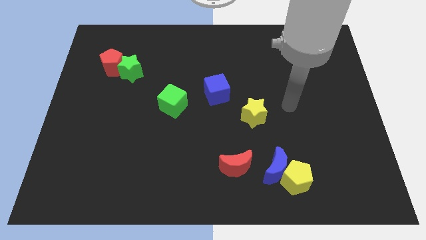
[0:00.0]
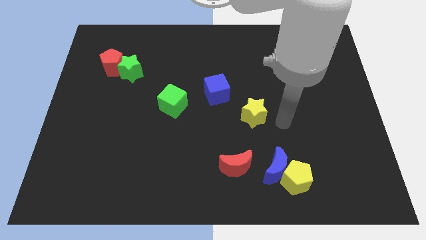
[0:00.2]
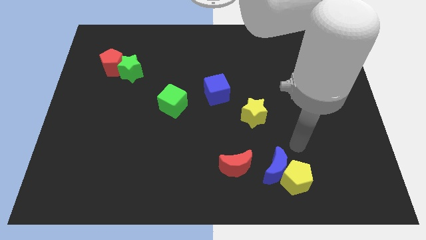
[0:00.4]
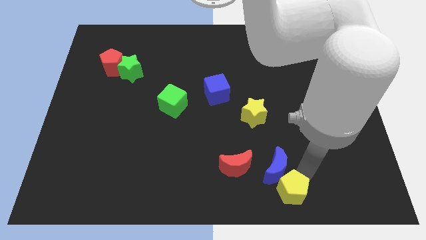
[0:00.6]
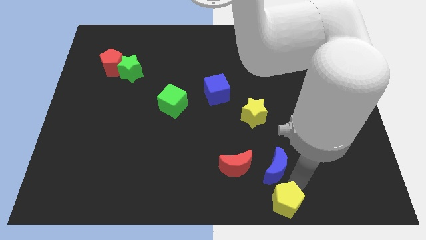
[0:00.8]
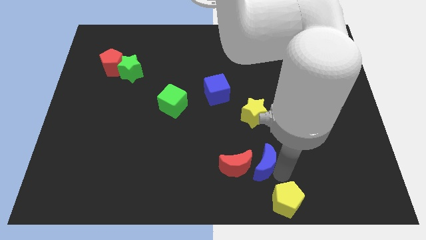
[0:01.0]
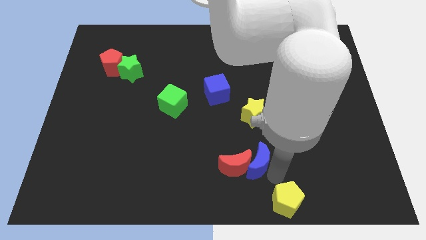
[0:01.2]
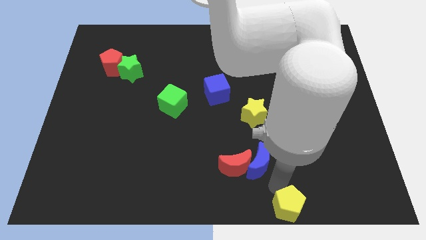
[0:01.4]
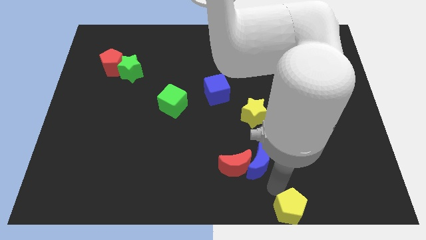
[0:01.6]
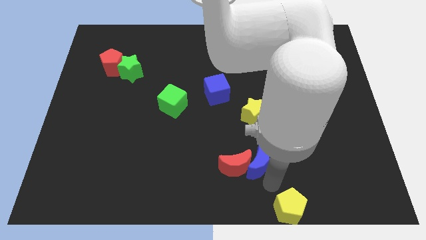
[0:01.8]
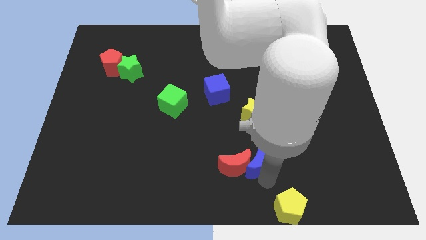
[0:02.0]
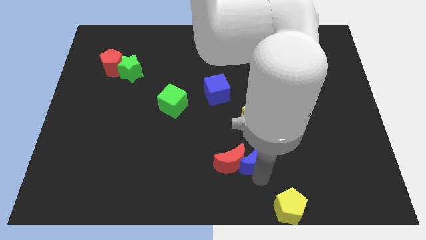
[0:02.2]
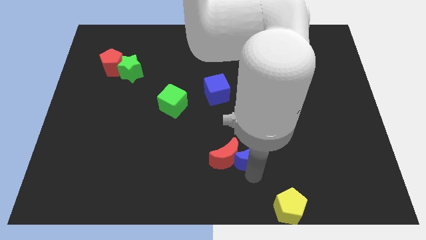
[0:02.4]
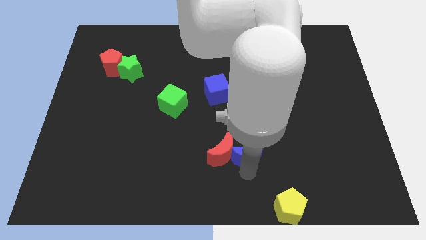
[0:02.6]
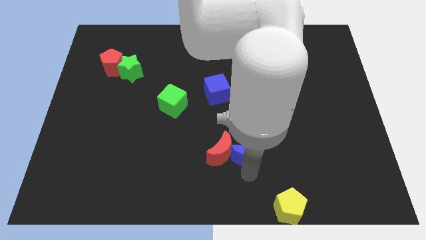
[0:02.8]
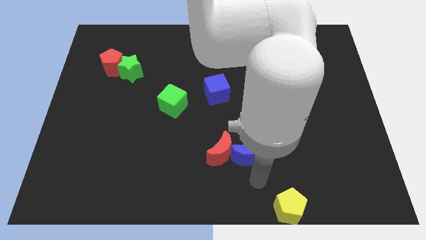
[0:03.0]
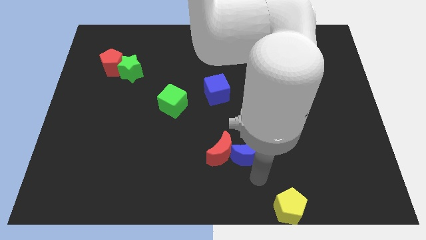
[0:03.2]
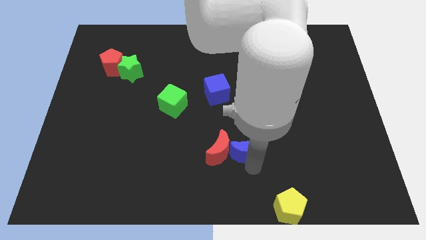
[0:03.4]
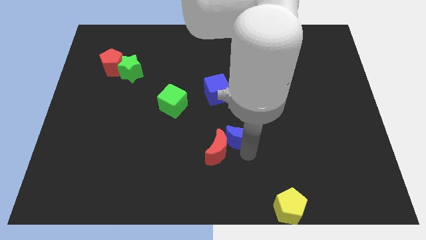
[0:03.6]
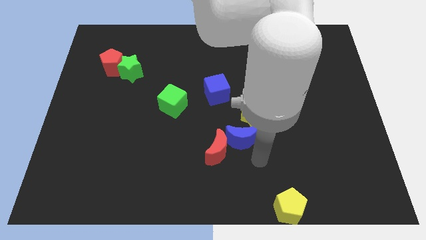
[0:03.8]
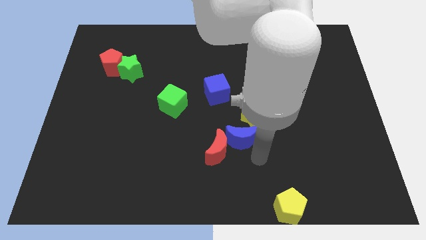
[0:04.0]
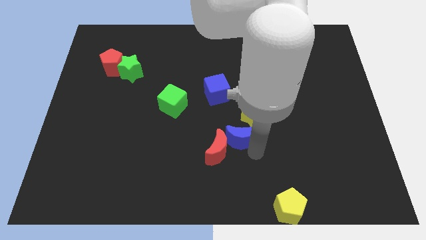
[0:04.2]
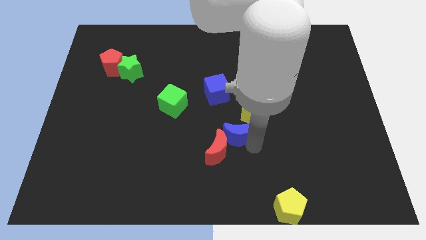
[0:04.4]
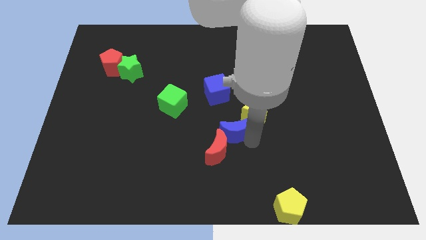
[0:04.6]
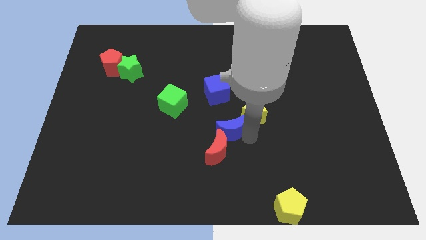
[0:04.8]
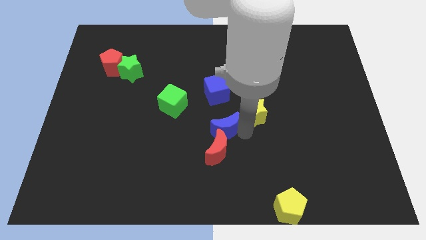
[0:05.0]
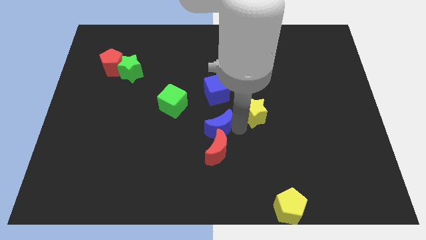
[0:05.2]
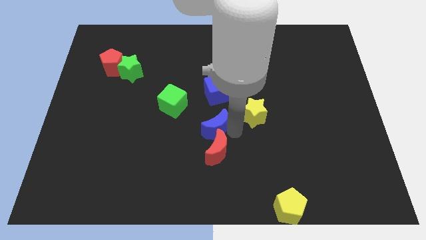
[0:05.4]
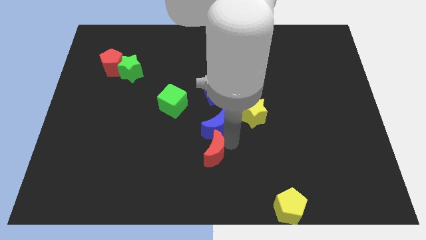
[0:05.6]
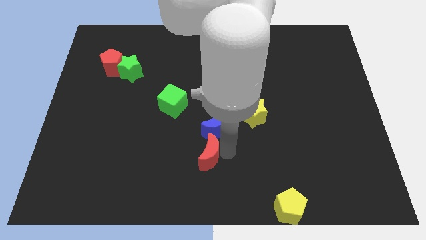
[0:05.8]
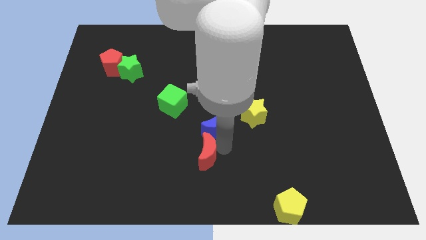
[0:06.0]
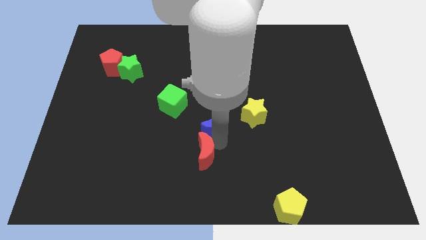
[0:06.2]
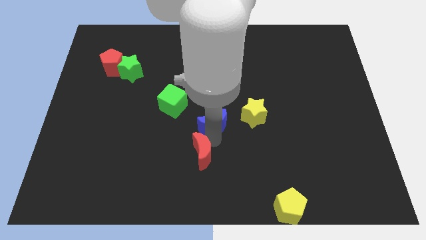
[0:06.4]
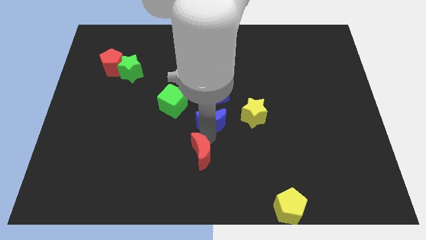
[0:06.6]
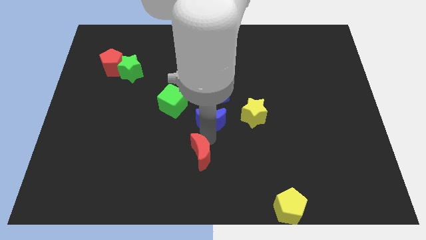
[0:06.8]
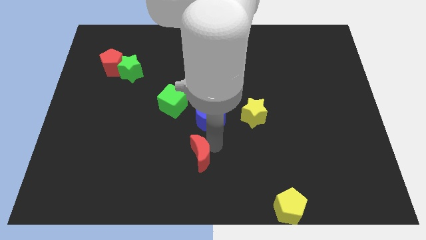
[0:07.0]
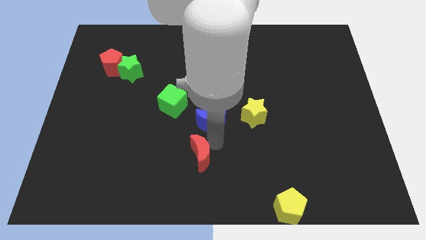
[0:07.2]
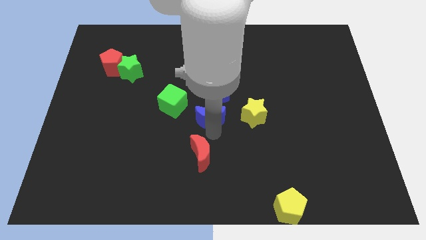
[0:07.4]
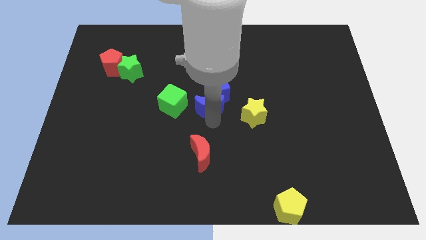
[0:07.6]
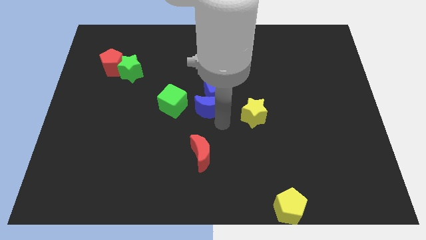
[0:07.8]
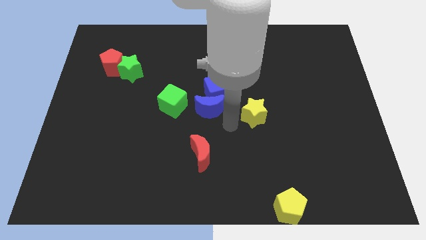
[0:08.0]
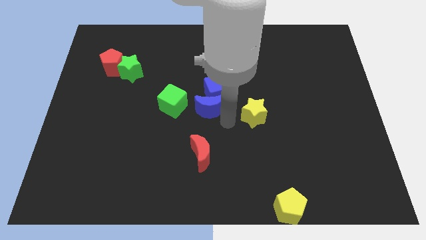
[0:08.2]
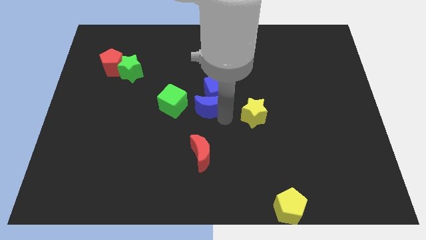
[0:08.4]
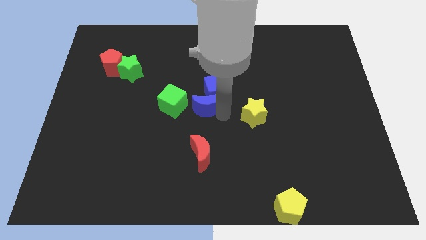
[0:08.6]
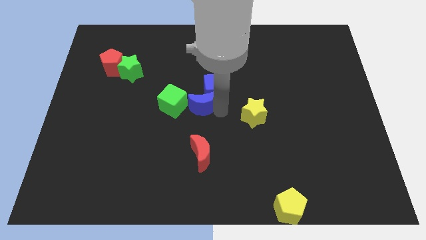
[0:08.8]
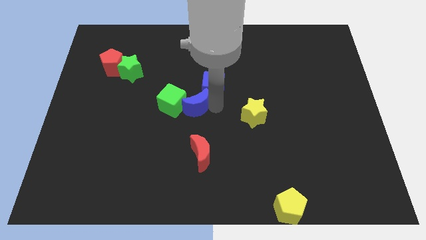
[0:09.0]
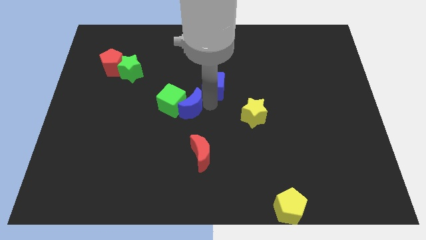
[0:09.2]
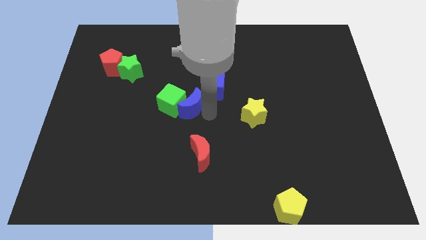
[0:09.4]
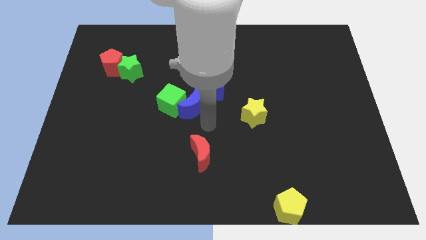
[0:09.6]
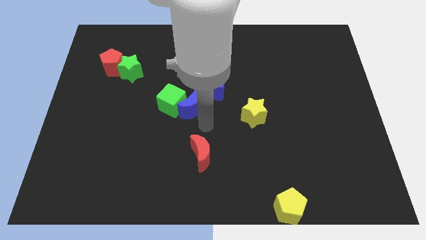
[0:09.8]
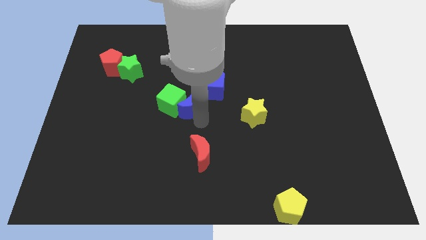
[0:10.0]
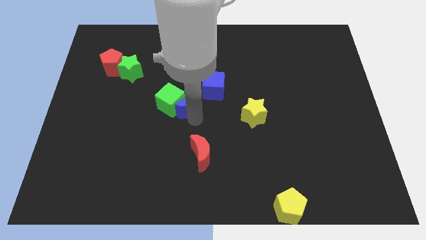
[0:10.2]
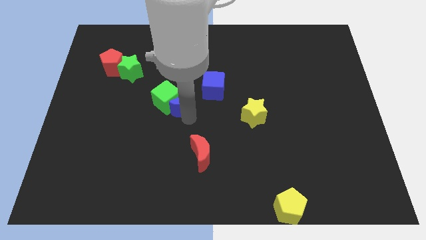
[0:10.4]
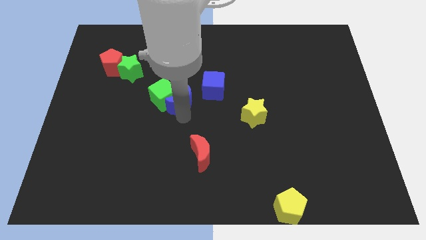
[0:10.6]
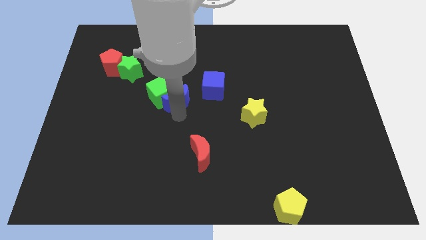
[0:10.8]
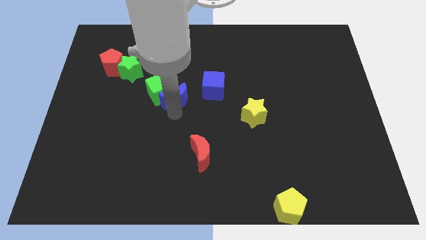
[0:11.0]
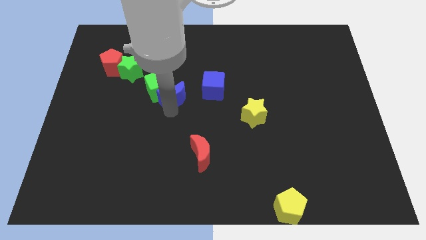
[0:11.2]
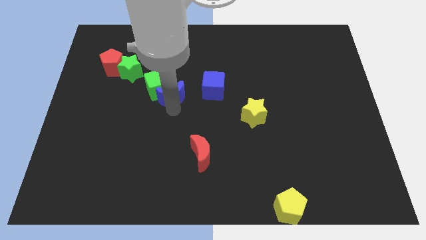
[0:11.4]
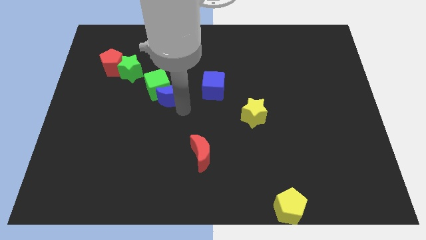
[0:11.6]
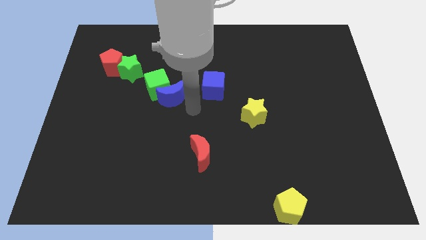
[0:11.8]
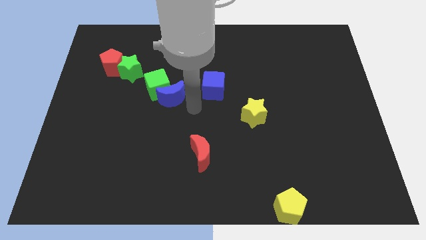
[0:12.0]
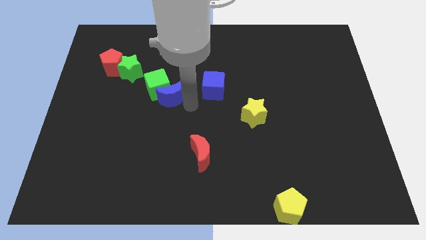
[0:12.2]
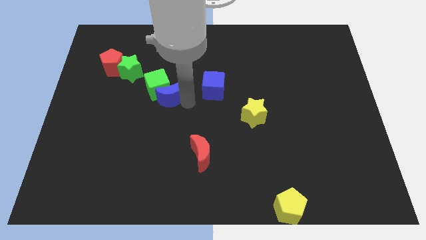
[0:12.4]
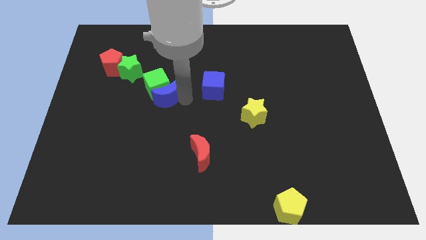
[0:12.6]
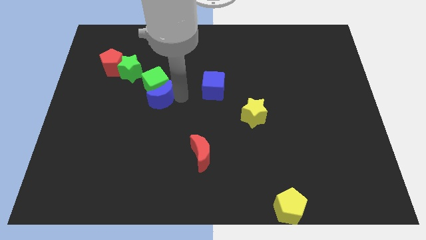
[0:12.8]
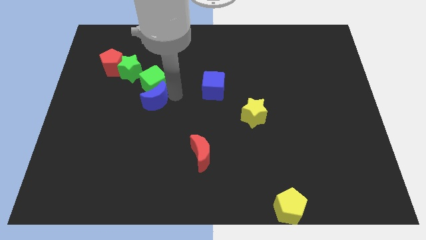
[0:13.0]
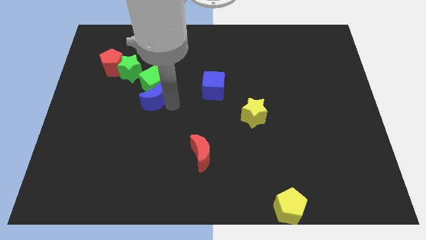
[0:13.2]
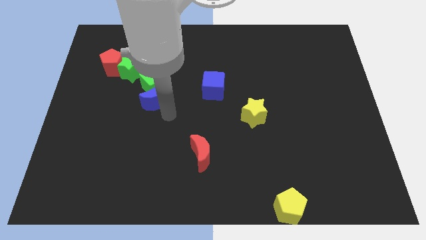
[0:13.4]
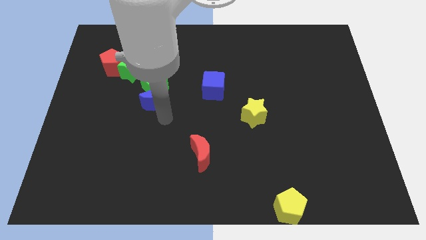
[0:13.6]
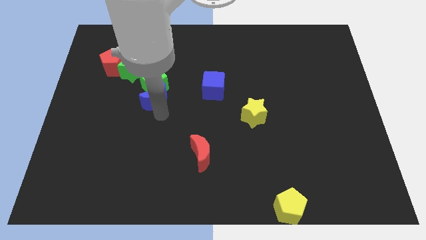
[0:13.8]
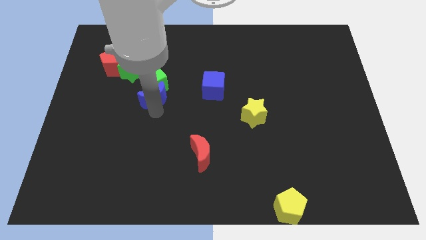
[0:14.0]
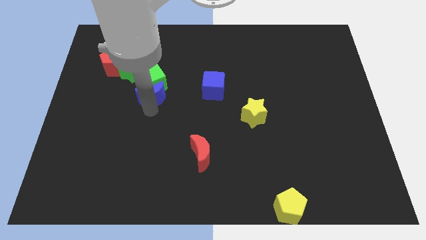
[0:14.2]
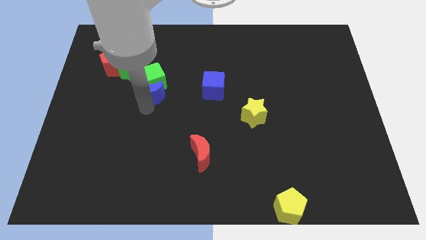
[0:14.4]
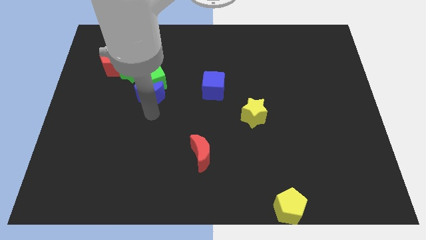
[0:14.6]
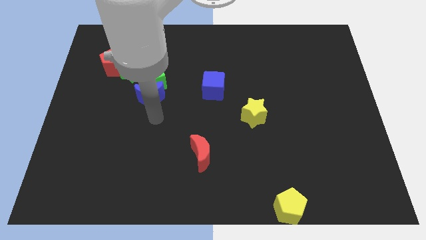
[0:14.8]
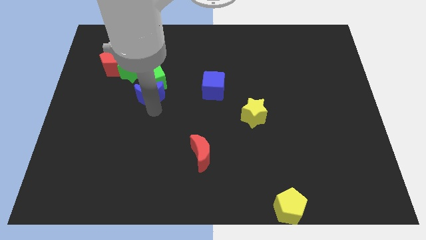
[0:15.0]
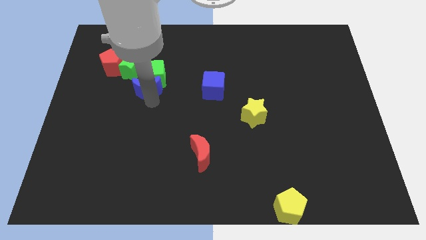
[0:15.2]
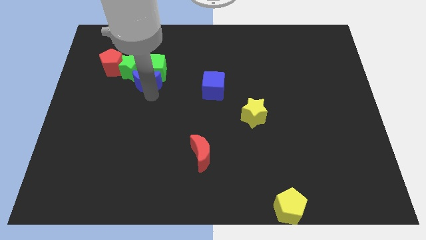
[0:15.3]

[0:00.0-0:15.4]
slide the blue moon to the green star
